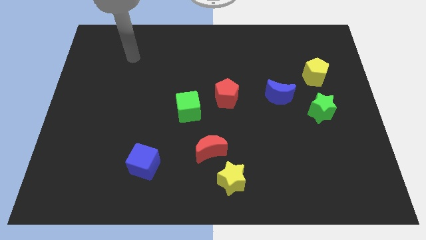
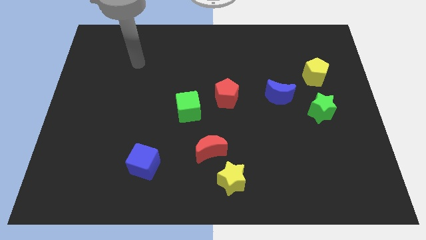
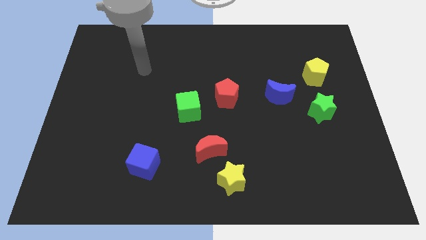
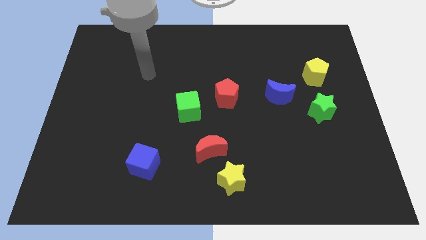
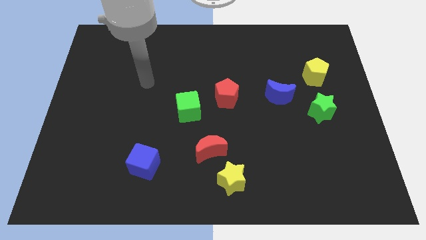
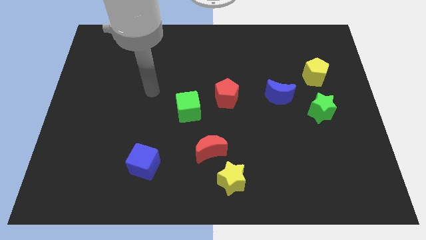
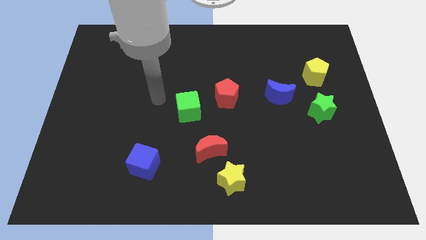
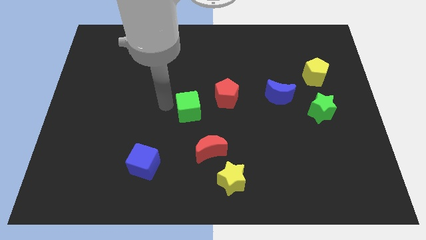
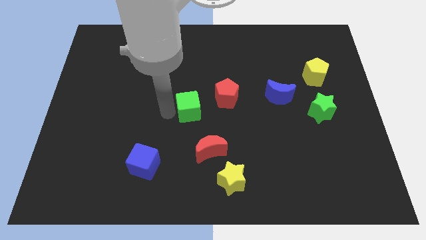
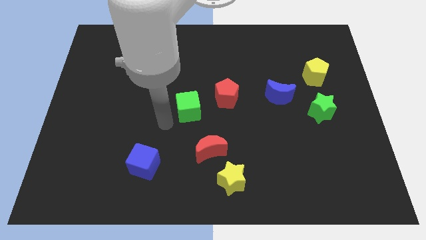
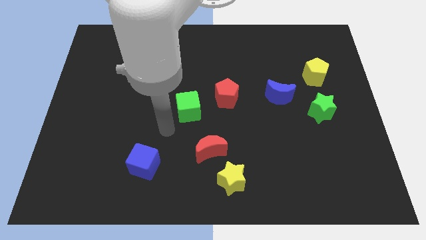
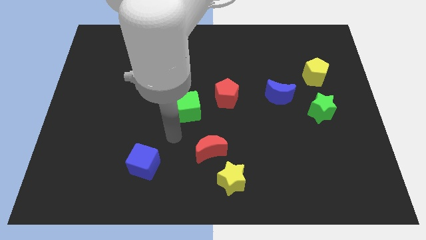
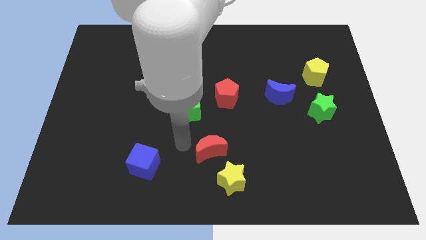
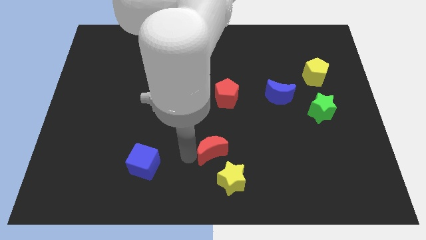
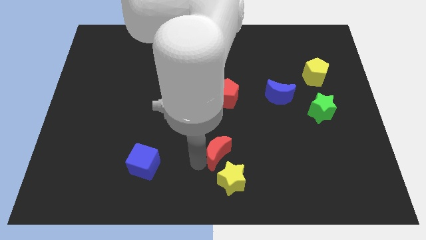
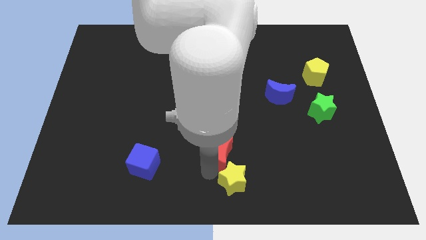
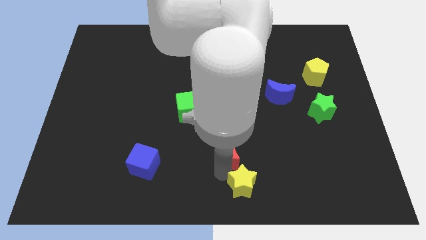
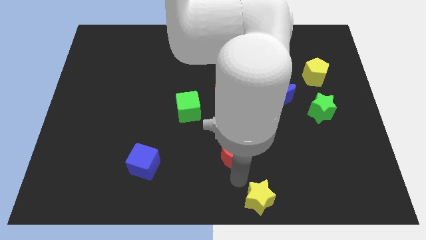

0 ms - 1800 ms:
move the red moon away from the yellow star

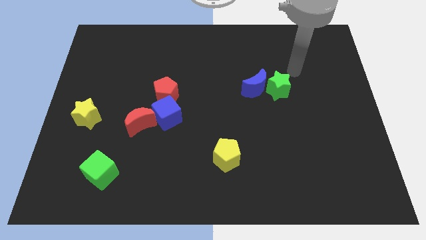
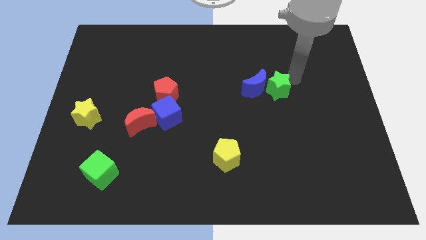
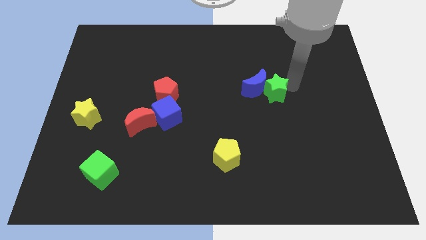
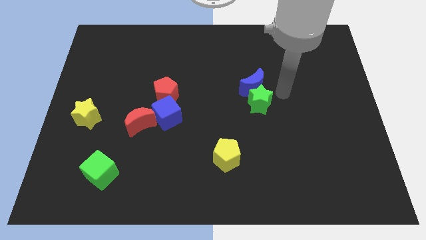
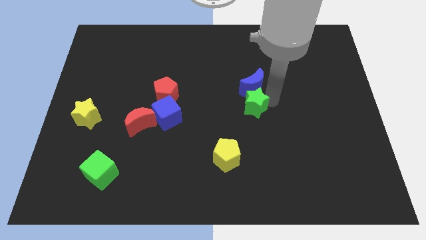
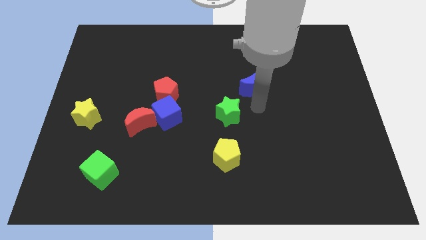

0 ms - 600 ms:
pull the blue moon apart from the green star

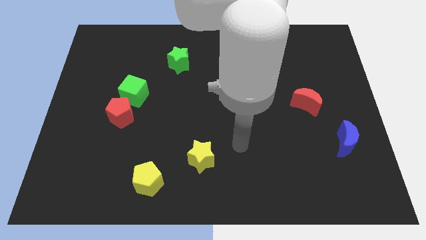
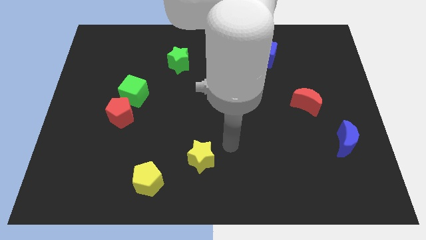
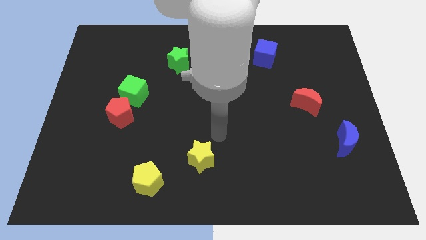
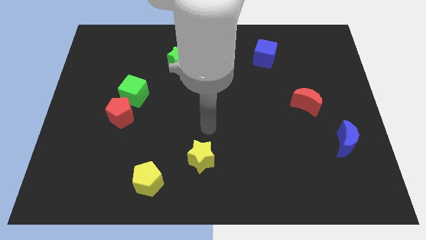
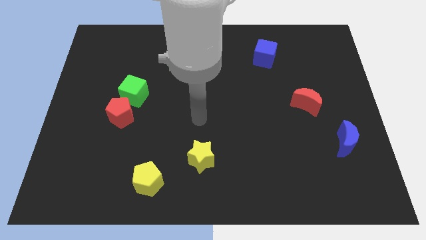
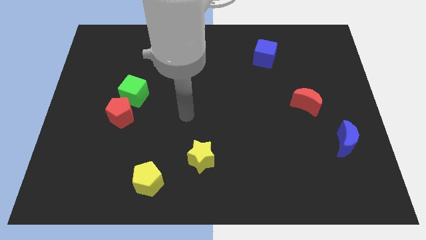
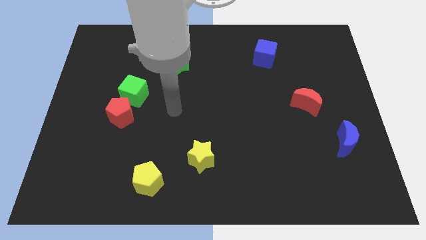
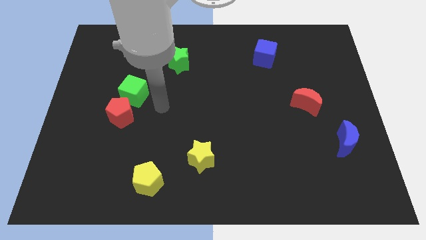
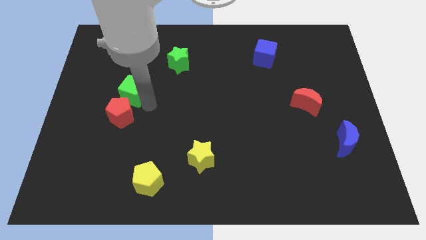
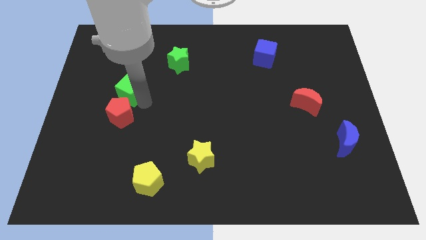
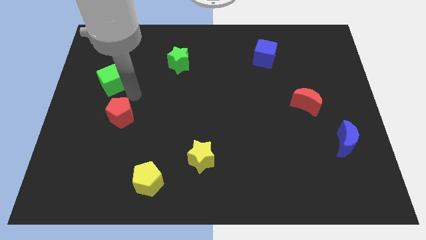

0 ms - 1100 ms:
move the red pentagon away from the green cube

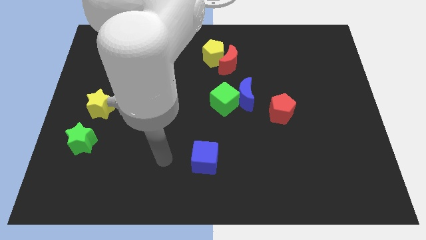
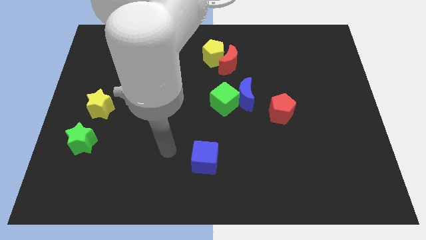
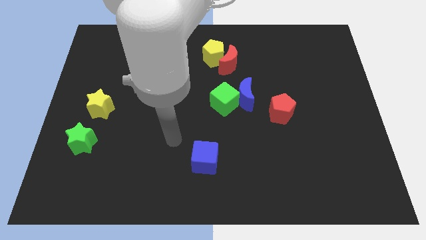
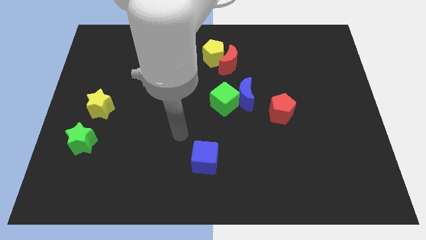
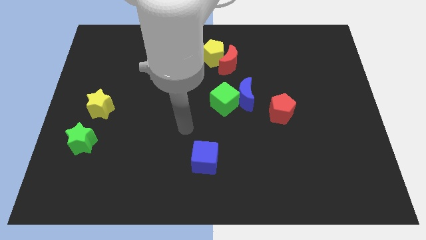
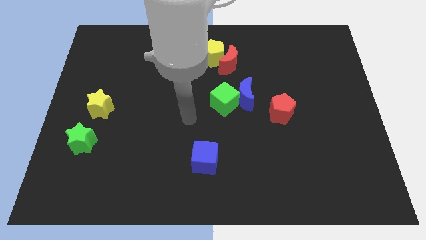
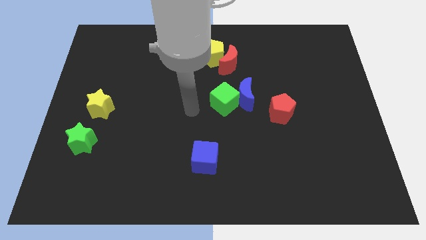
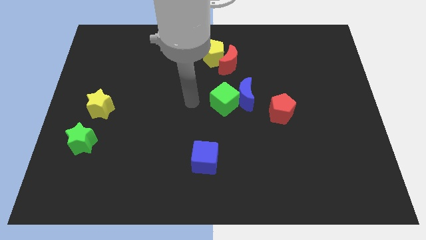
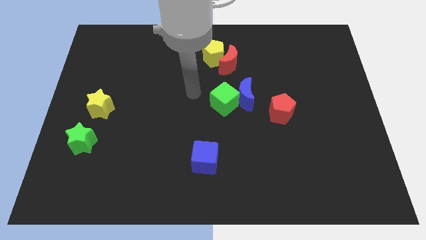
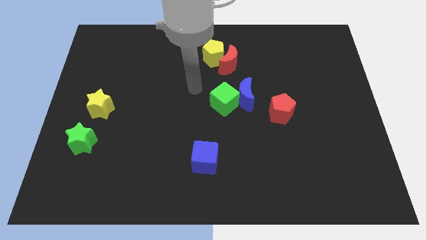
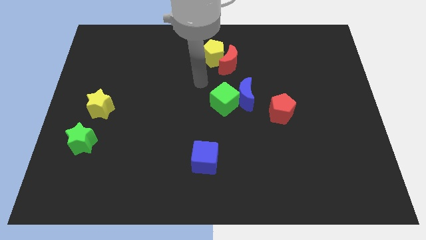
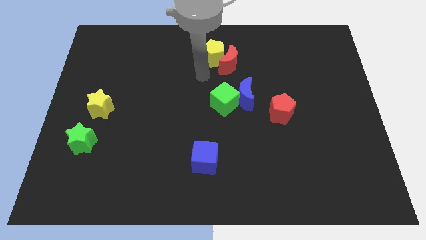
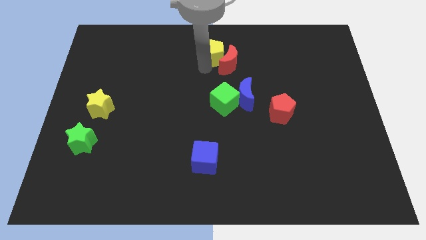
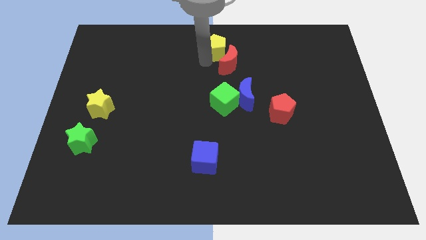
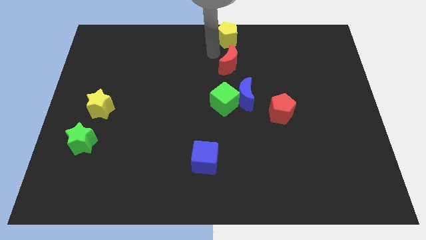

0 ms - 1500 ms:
pull the red moon apart from the yellow pentagon

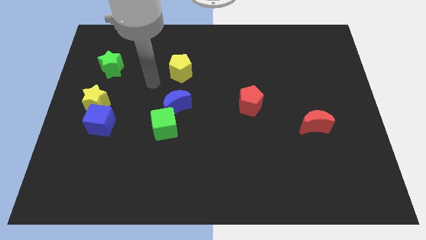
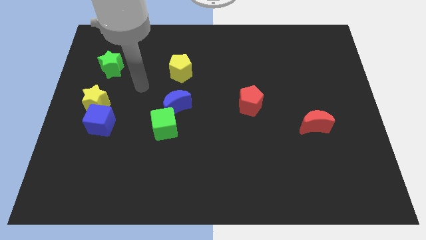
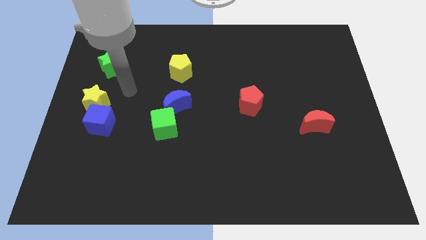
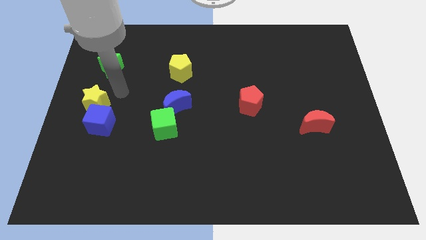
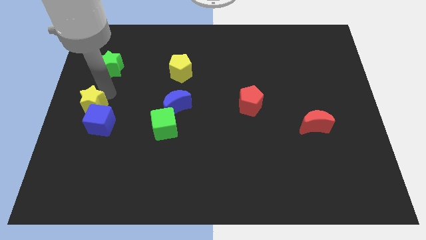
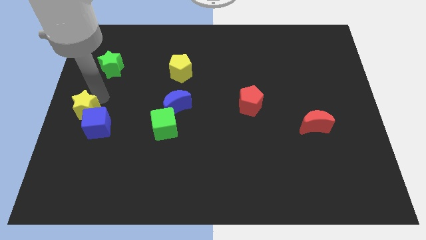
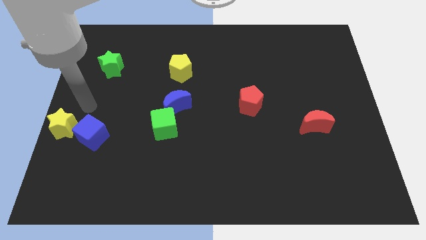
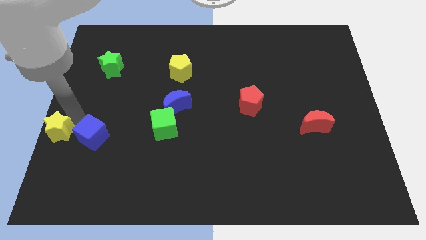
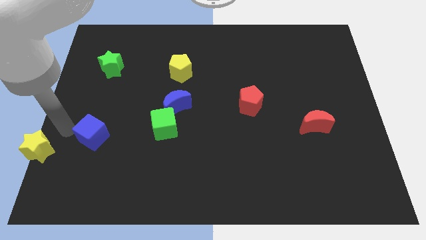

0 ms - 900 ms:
separate the blue cube from the yellow star

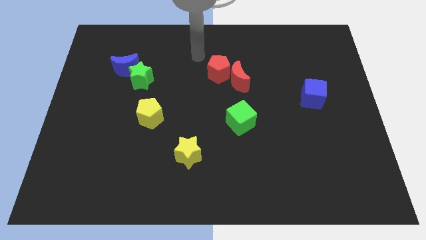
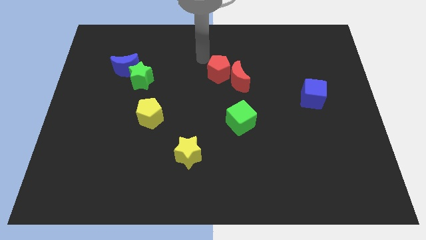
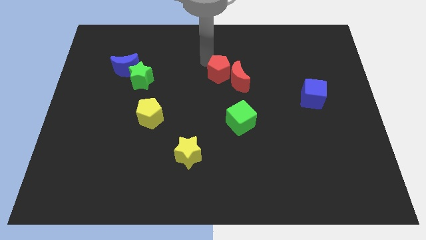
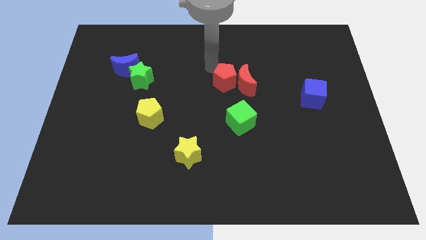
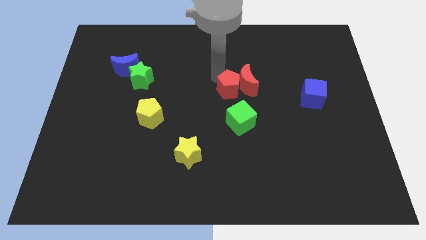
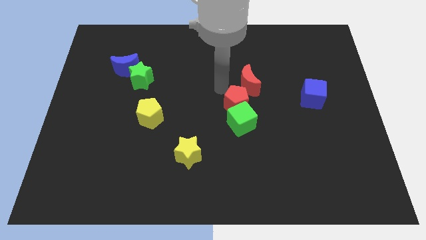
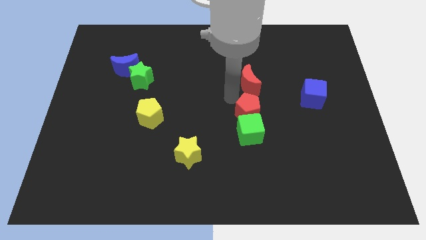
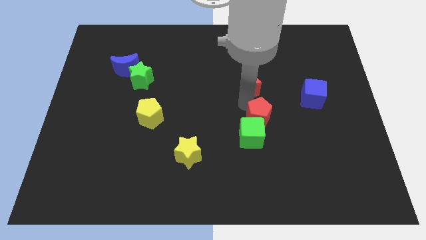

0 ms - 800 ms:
separate the red moon from the red pentagon

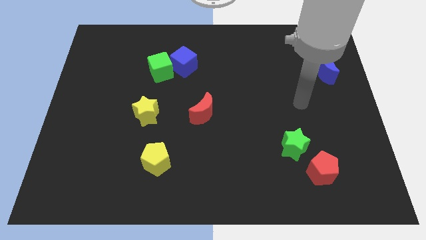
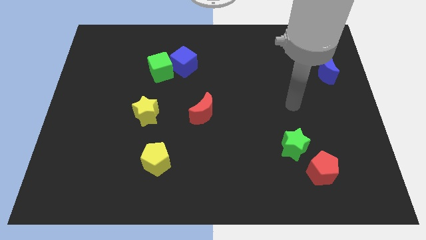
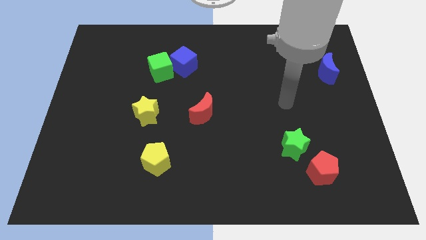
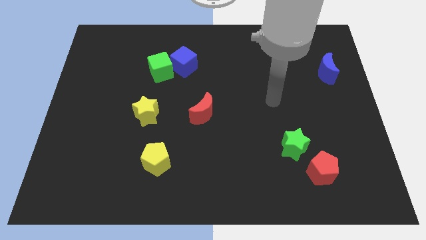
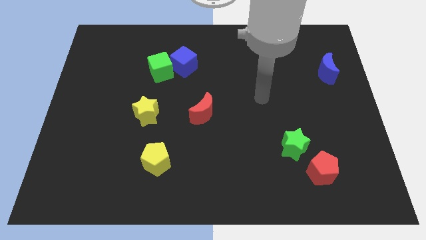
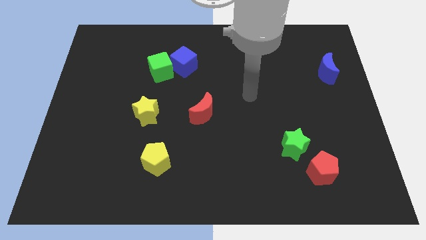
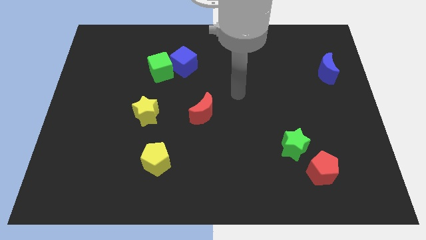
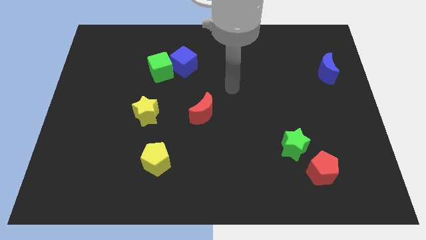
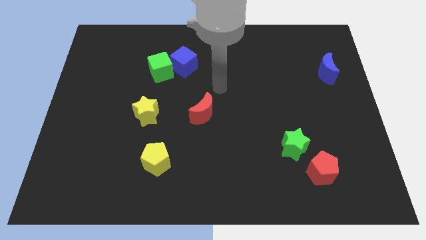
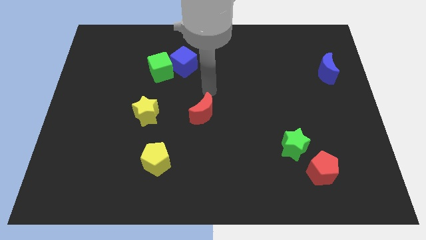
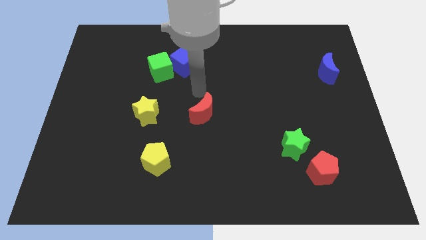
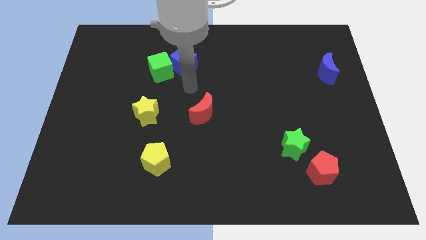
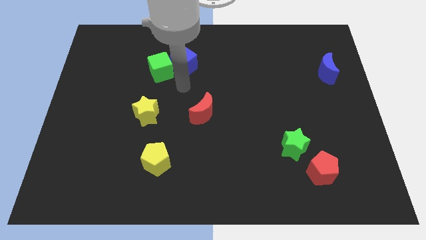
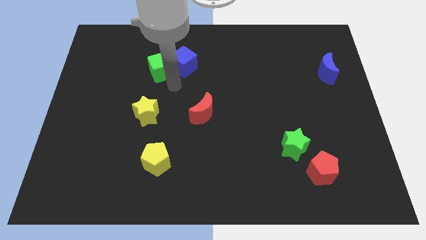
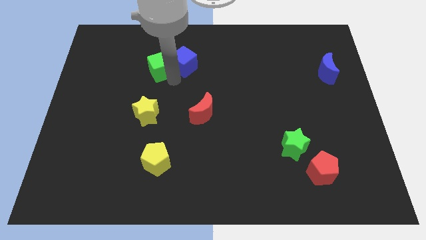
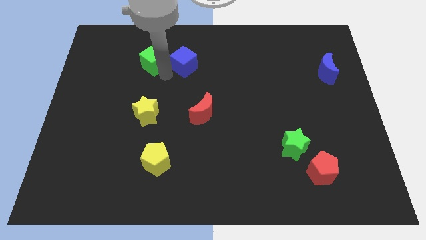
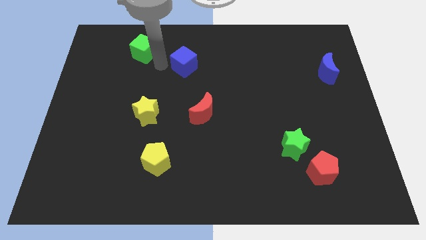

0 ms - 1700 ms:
pull the blue cube apart from the green cube

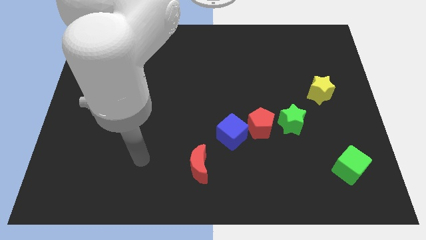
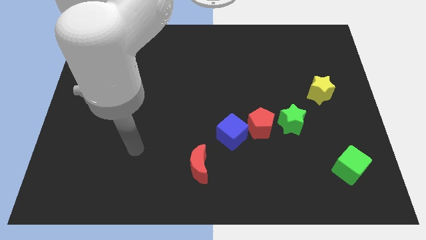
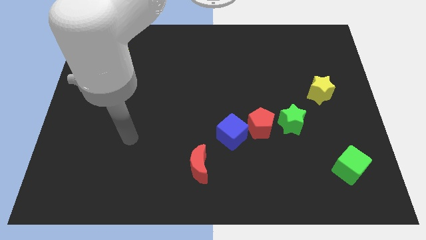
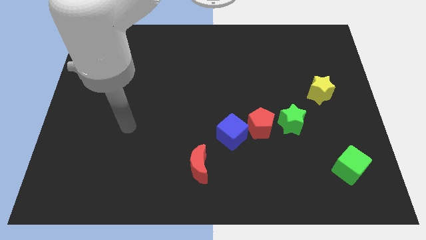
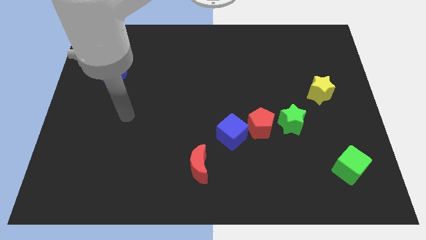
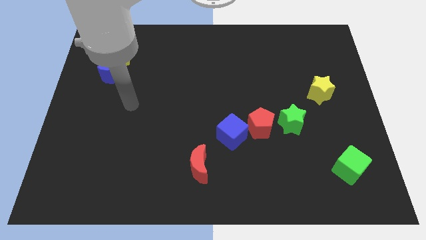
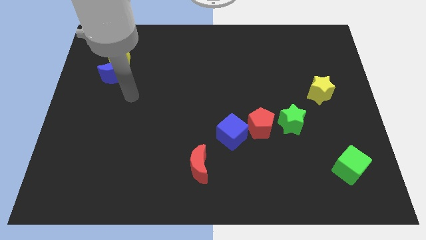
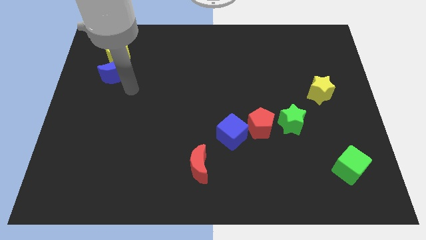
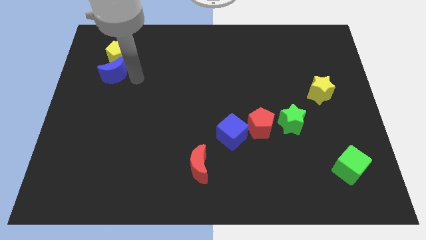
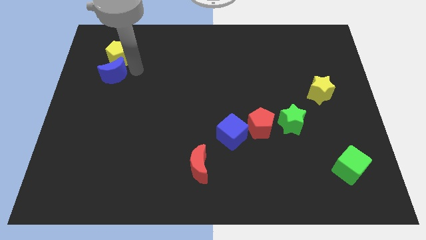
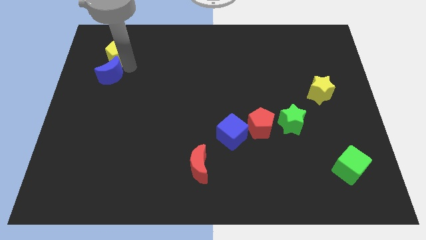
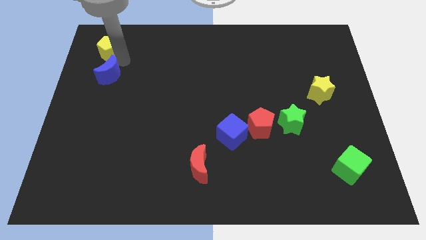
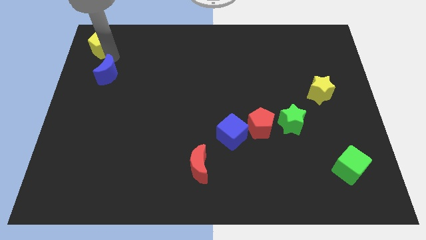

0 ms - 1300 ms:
pull the blue moon apart from the yellow pentagon
